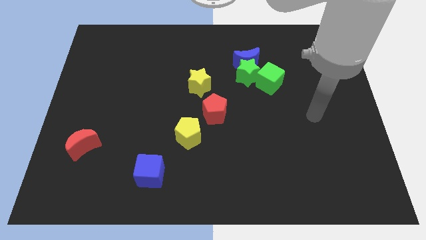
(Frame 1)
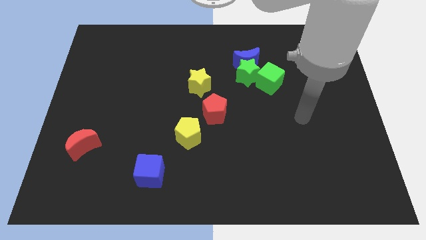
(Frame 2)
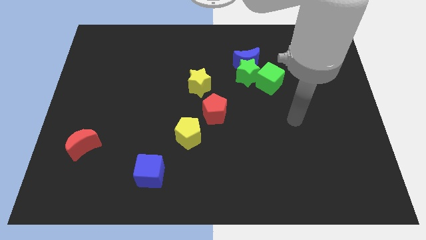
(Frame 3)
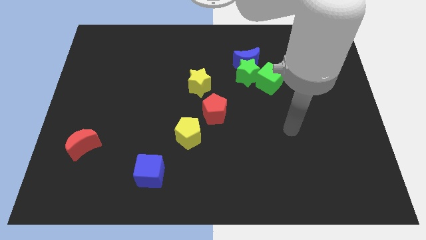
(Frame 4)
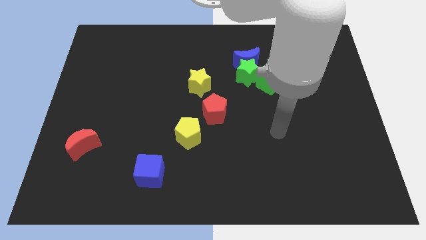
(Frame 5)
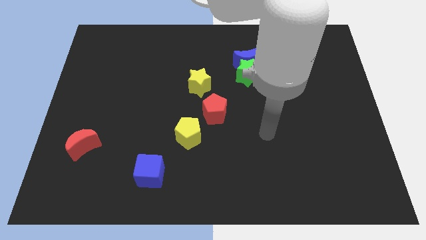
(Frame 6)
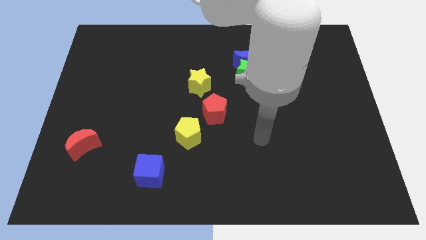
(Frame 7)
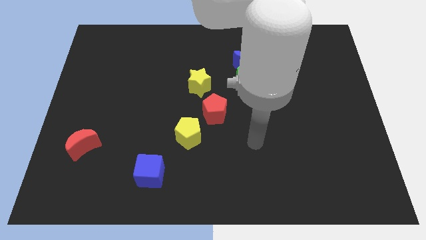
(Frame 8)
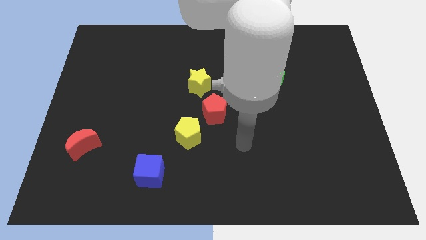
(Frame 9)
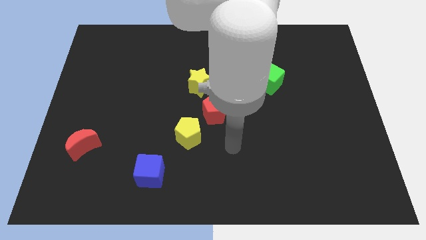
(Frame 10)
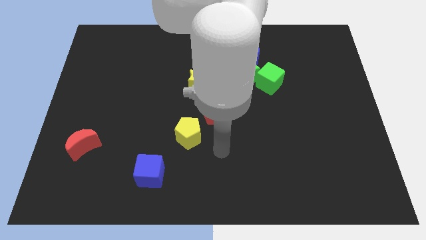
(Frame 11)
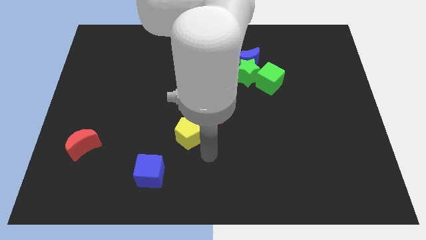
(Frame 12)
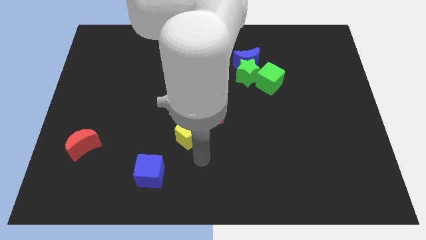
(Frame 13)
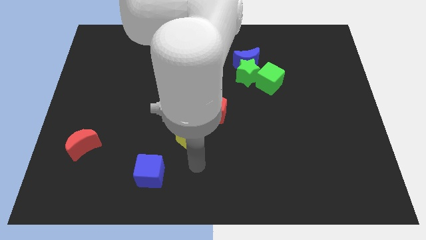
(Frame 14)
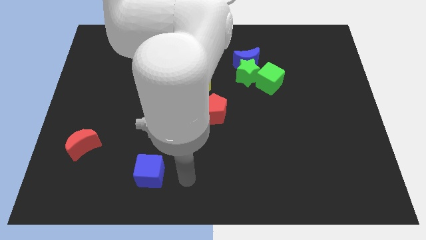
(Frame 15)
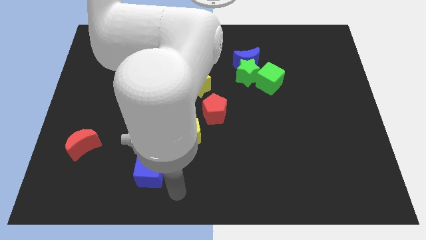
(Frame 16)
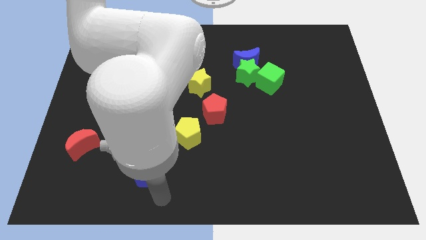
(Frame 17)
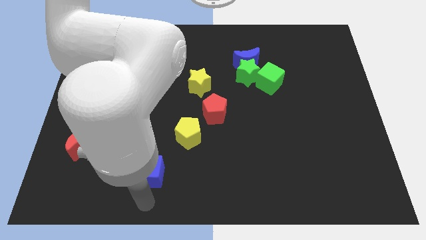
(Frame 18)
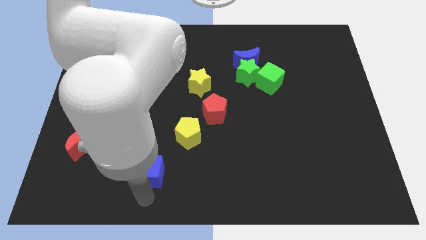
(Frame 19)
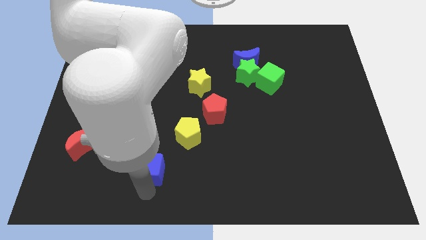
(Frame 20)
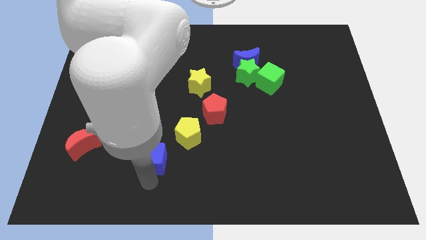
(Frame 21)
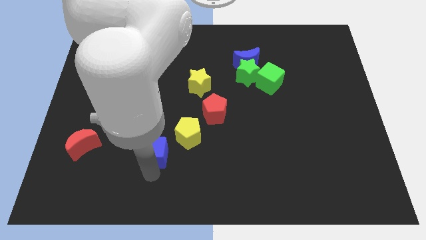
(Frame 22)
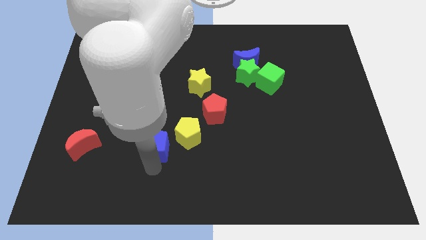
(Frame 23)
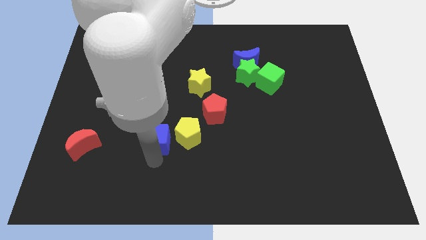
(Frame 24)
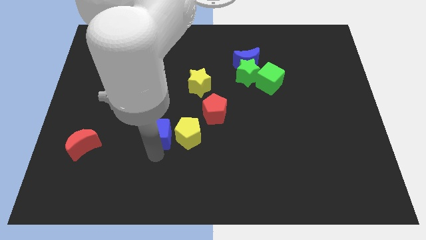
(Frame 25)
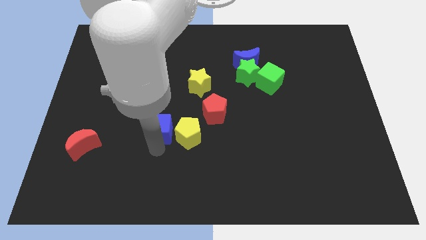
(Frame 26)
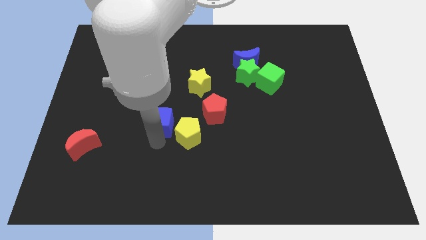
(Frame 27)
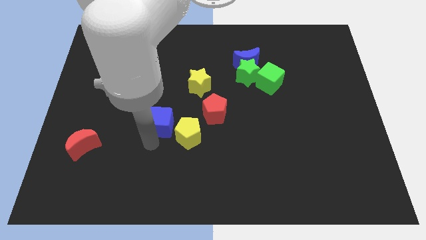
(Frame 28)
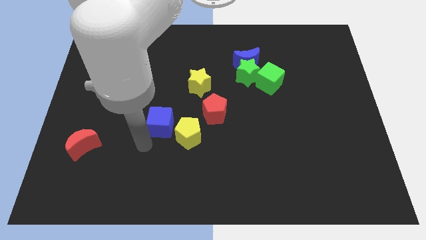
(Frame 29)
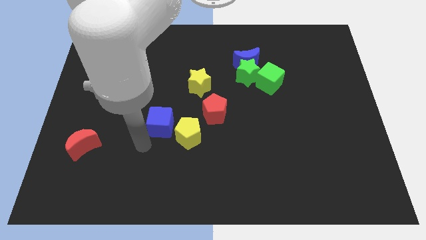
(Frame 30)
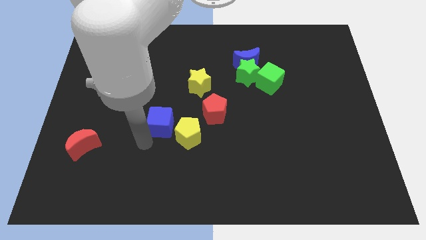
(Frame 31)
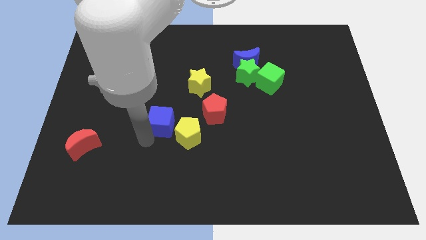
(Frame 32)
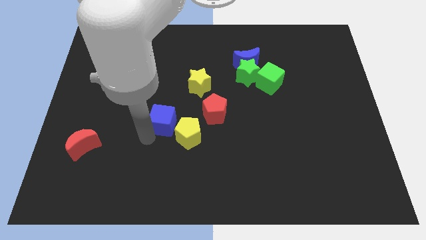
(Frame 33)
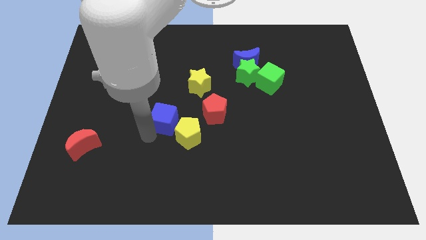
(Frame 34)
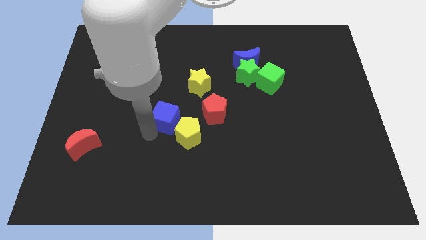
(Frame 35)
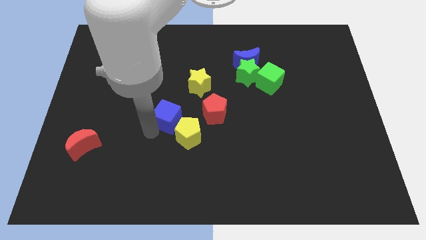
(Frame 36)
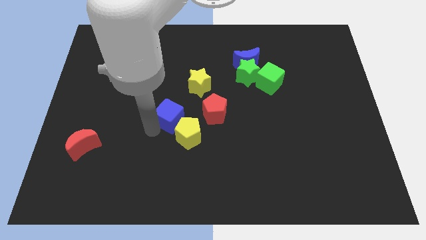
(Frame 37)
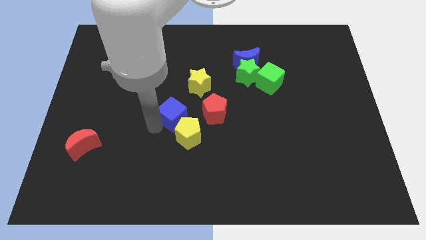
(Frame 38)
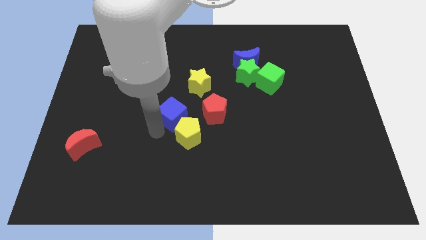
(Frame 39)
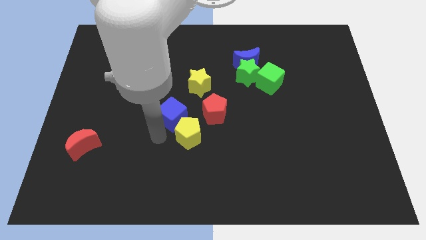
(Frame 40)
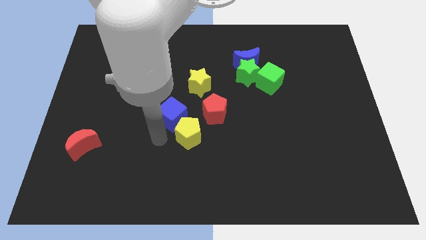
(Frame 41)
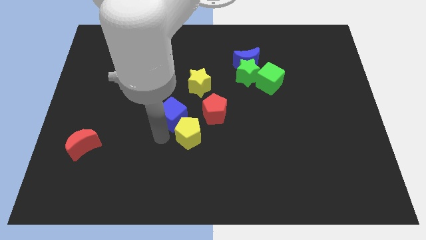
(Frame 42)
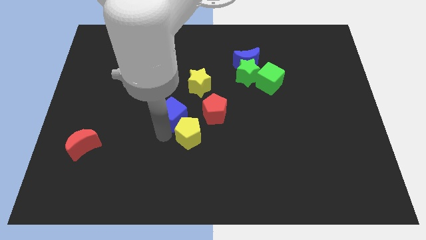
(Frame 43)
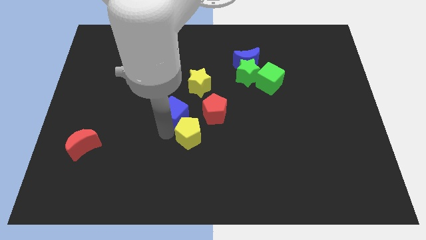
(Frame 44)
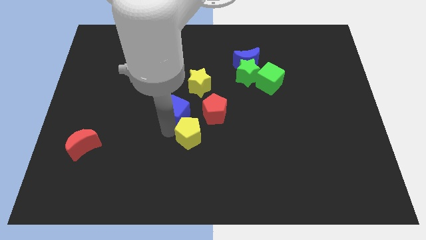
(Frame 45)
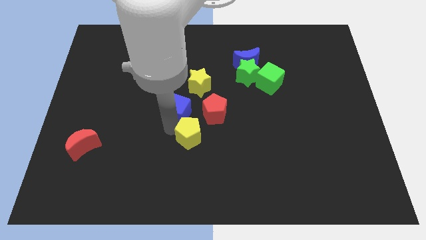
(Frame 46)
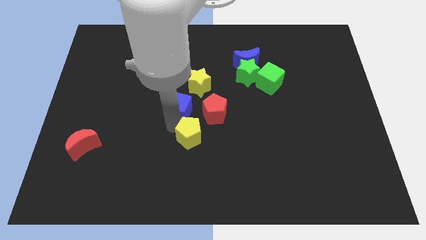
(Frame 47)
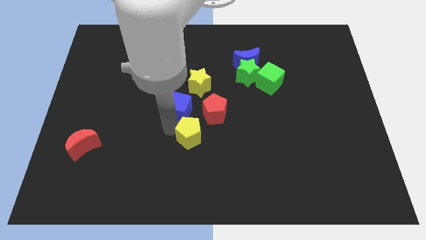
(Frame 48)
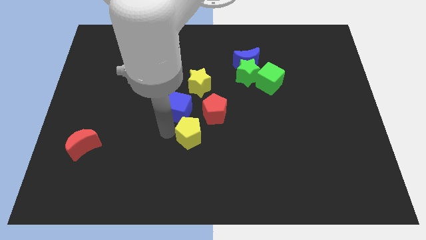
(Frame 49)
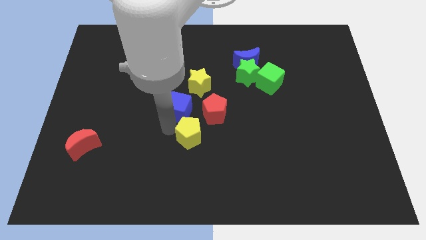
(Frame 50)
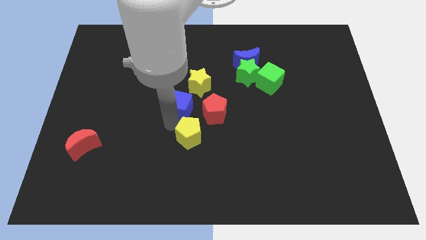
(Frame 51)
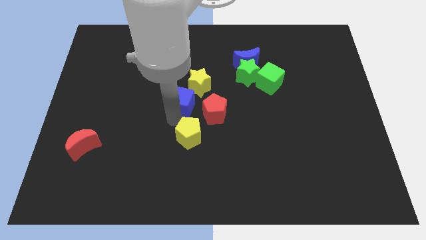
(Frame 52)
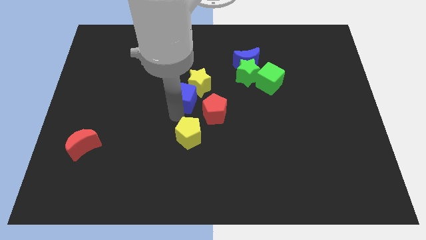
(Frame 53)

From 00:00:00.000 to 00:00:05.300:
put the blue cube next to the yellow star

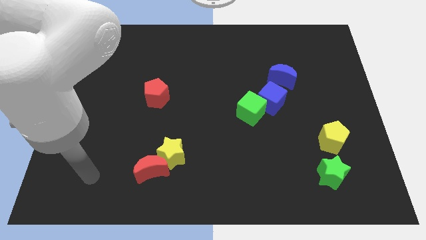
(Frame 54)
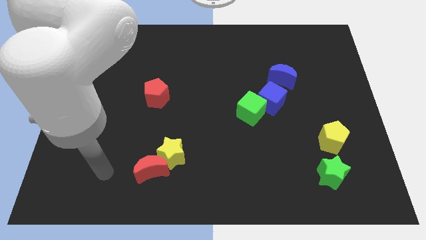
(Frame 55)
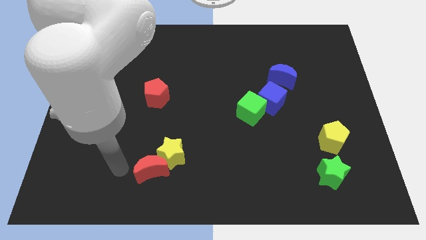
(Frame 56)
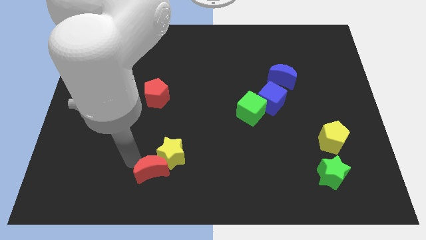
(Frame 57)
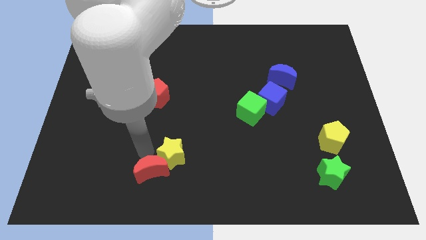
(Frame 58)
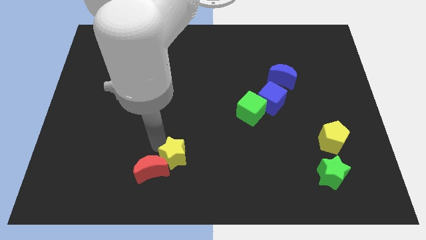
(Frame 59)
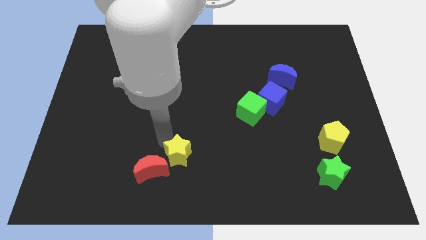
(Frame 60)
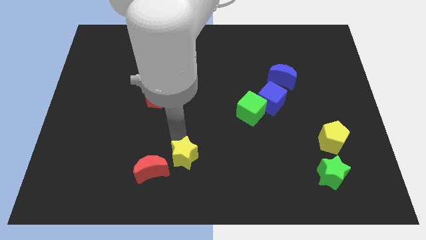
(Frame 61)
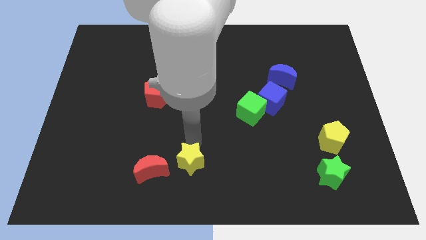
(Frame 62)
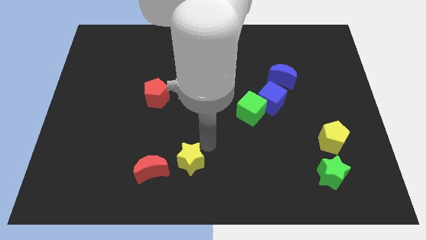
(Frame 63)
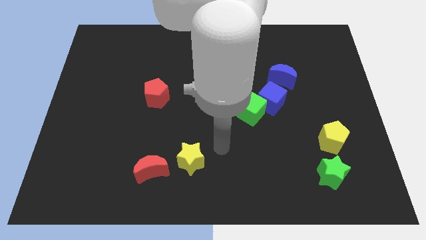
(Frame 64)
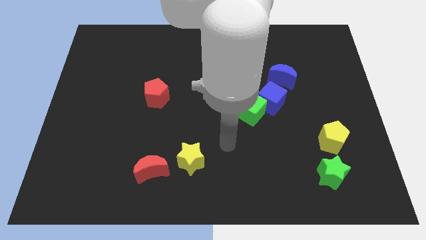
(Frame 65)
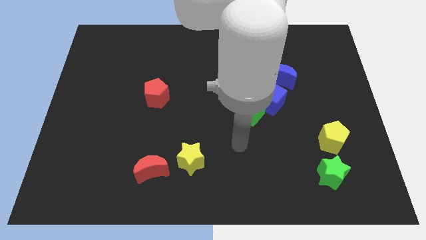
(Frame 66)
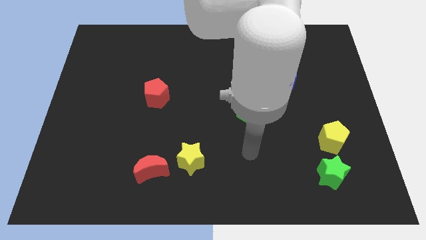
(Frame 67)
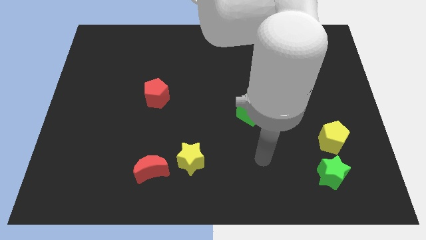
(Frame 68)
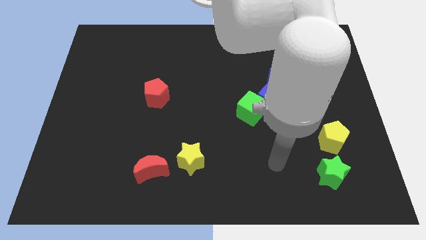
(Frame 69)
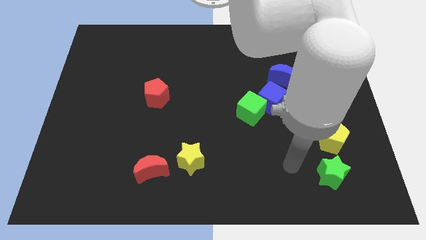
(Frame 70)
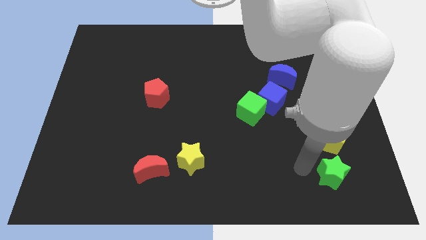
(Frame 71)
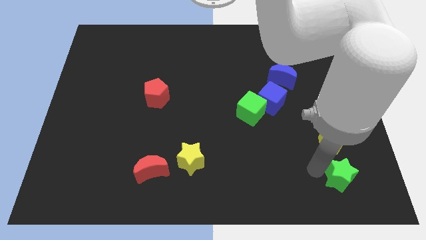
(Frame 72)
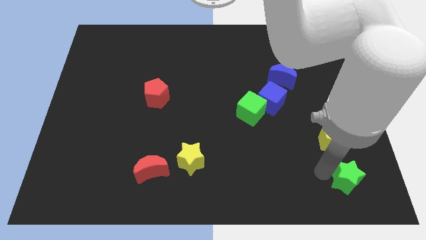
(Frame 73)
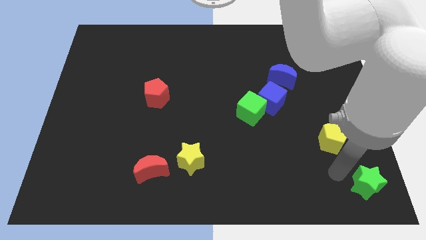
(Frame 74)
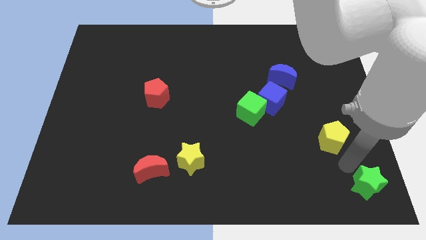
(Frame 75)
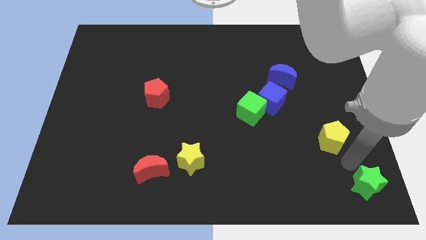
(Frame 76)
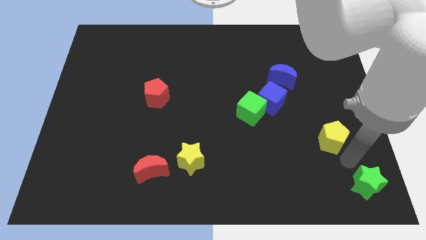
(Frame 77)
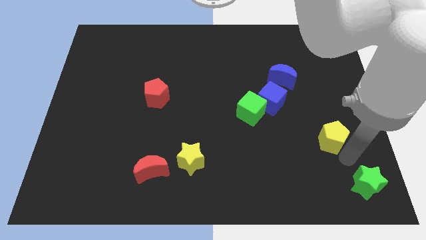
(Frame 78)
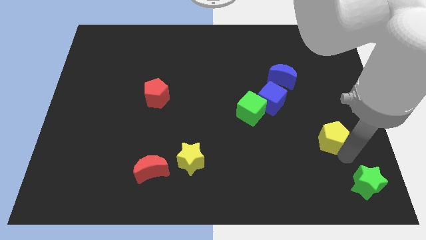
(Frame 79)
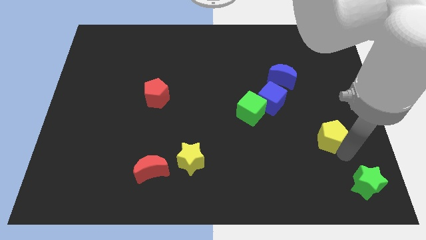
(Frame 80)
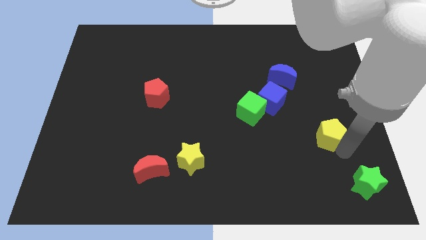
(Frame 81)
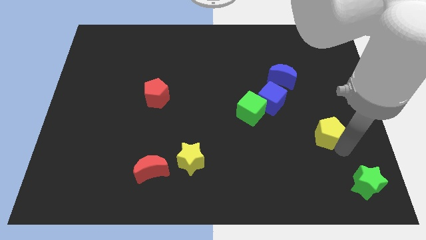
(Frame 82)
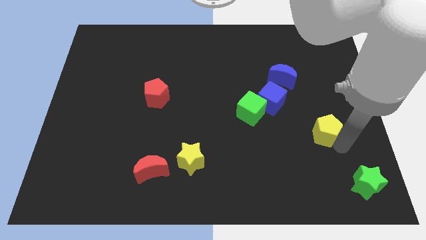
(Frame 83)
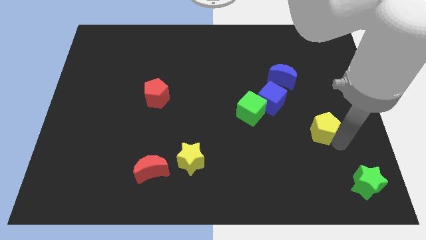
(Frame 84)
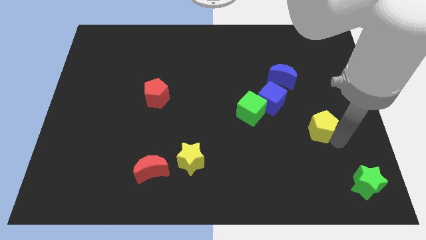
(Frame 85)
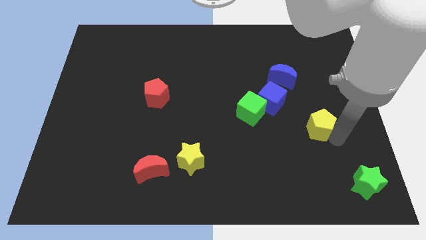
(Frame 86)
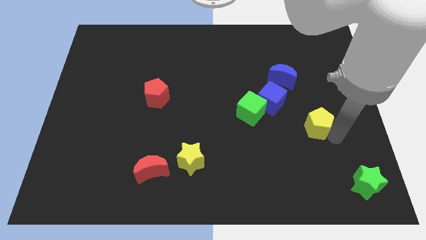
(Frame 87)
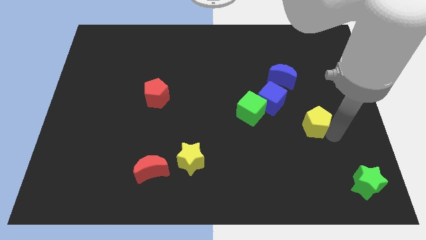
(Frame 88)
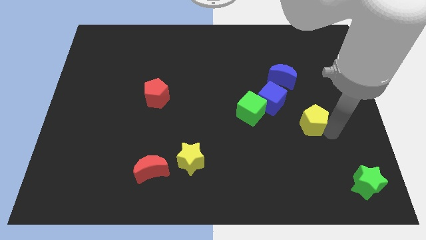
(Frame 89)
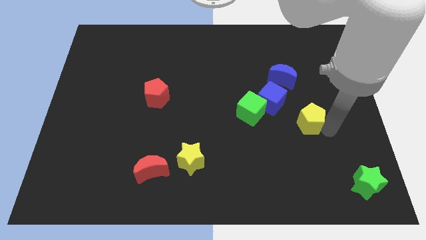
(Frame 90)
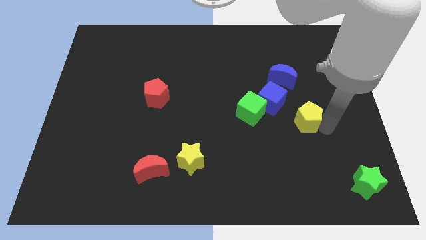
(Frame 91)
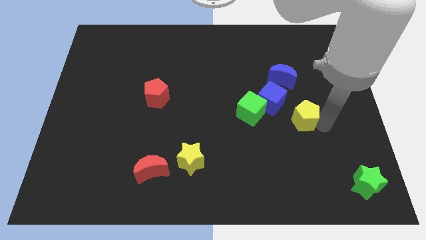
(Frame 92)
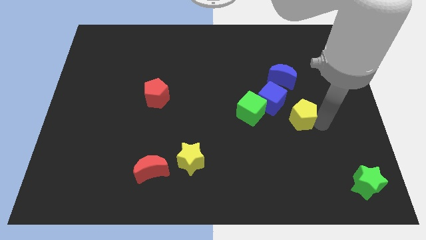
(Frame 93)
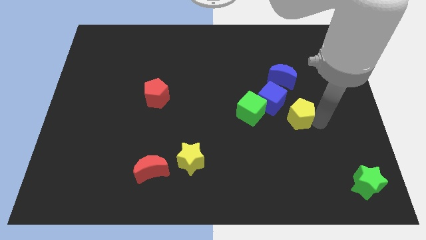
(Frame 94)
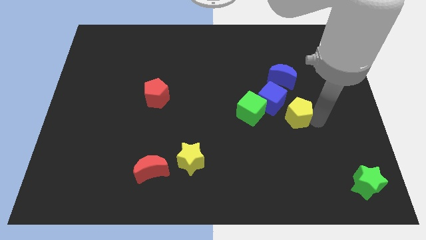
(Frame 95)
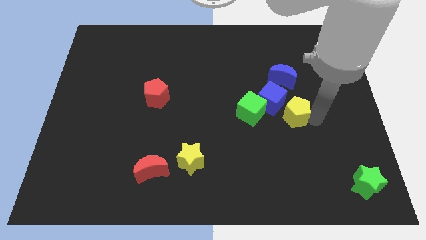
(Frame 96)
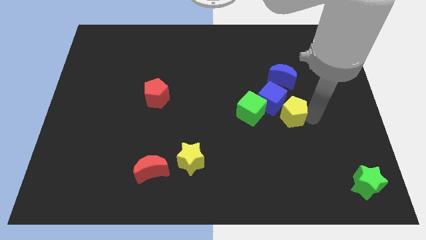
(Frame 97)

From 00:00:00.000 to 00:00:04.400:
push the yellow pentagon to the blue cube
